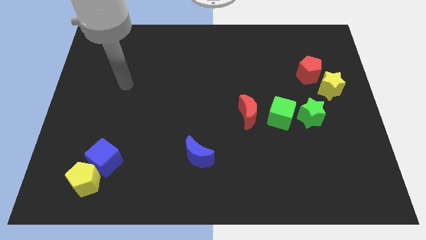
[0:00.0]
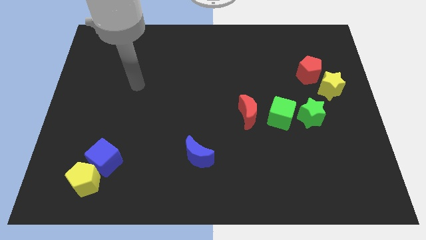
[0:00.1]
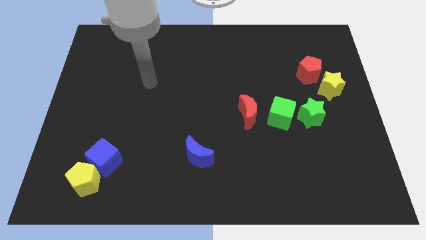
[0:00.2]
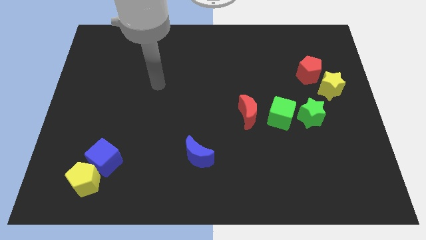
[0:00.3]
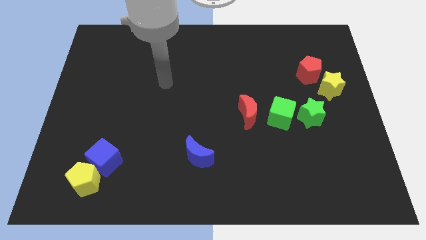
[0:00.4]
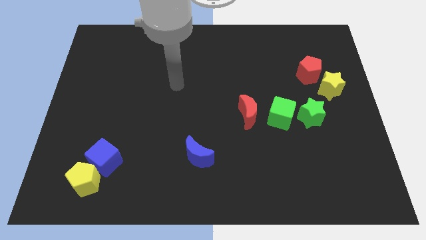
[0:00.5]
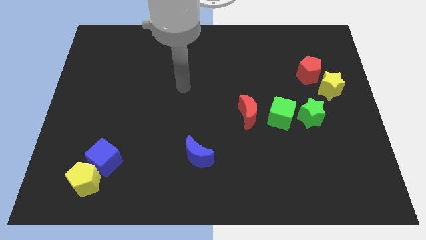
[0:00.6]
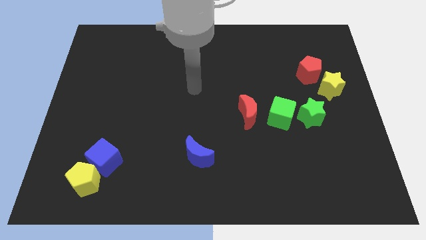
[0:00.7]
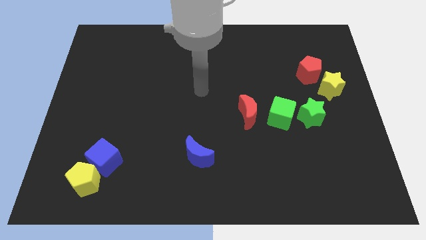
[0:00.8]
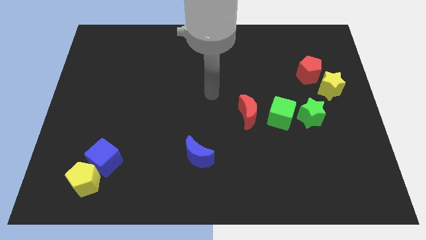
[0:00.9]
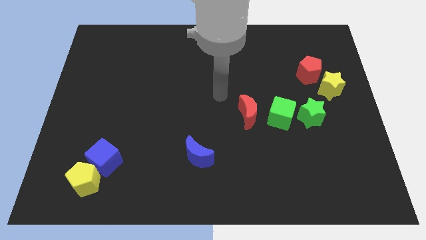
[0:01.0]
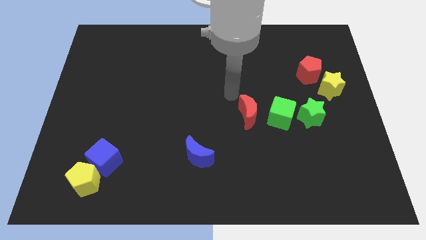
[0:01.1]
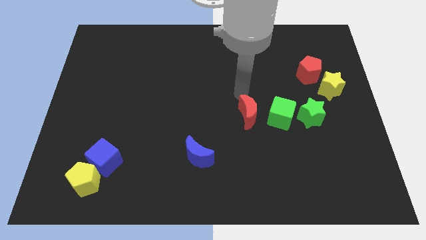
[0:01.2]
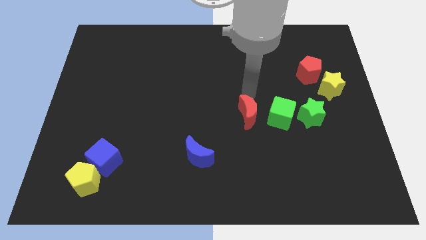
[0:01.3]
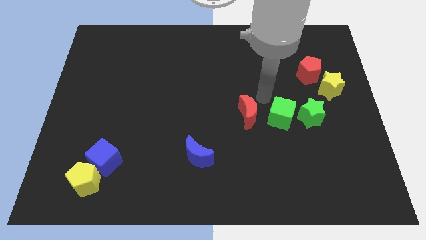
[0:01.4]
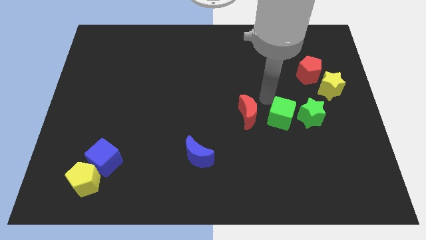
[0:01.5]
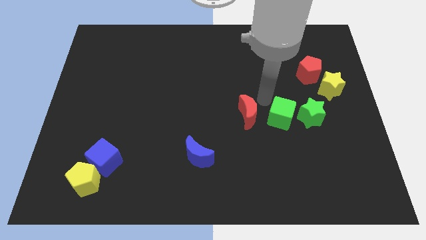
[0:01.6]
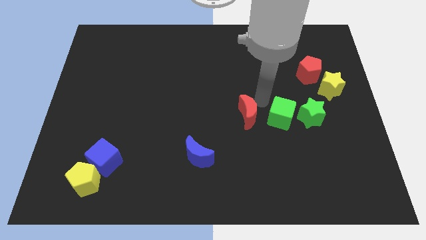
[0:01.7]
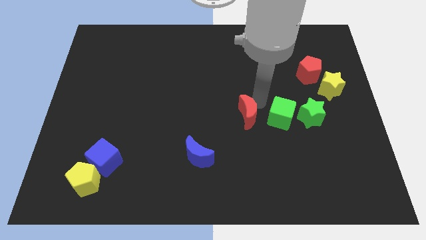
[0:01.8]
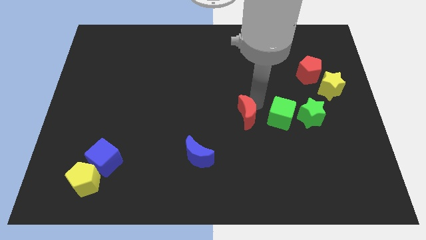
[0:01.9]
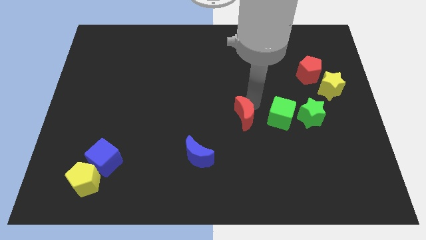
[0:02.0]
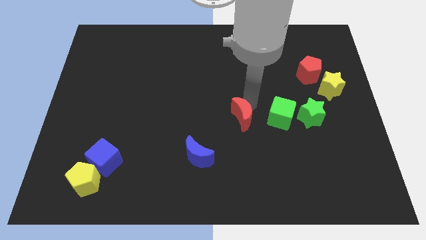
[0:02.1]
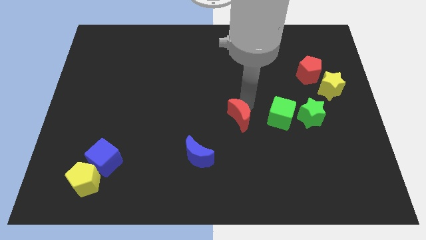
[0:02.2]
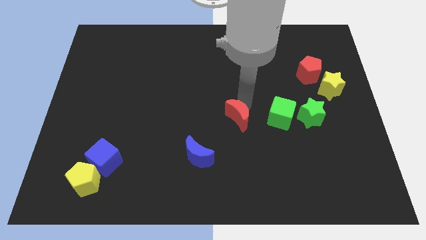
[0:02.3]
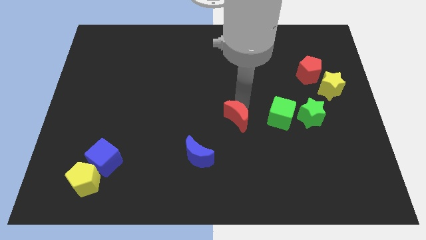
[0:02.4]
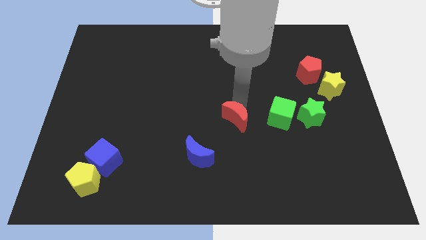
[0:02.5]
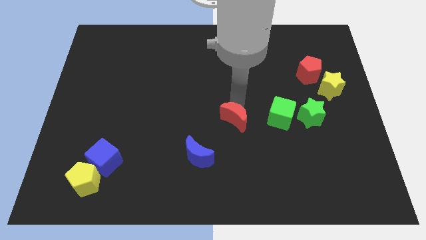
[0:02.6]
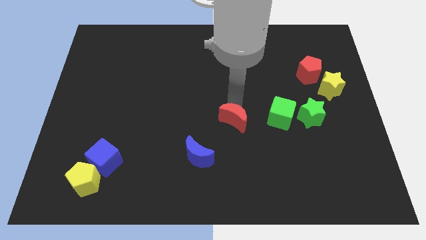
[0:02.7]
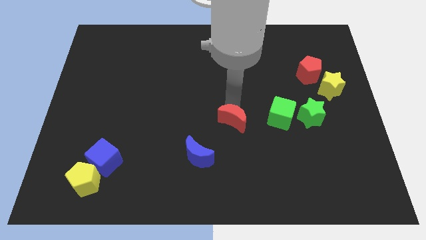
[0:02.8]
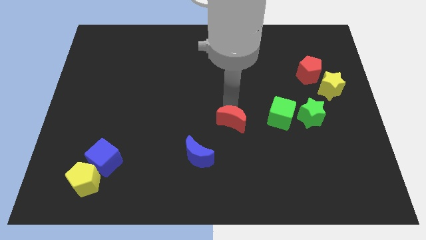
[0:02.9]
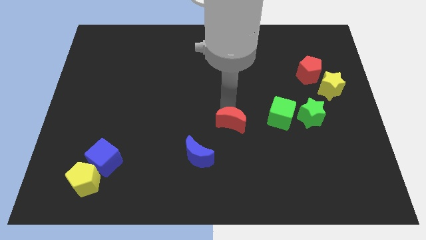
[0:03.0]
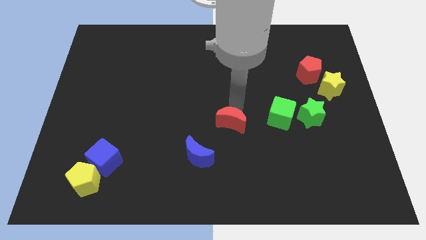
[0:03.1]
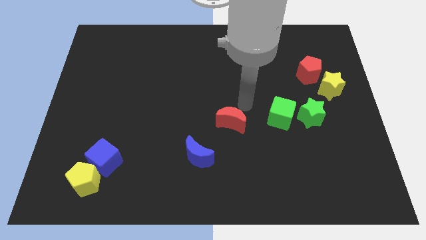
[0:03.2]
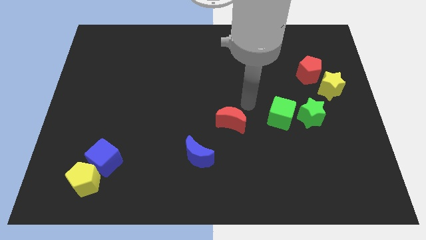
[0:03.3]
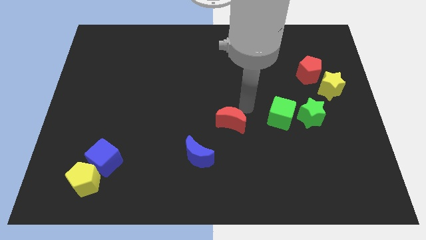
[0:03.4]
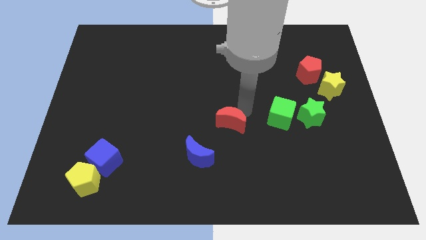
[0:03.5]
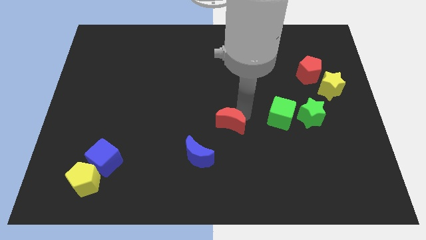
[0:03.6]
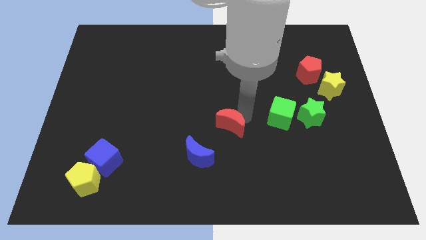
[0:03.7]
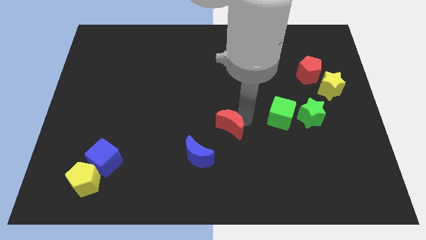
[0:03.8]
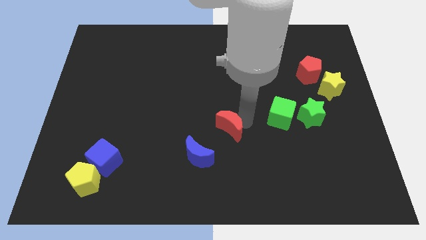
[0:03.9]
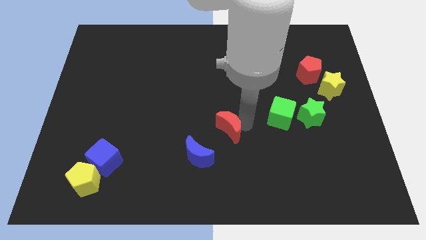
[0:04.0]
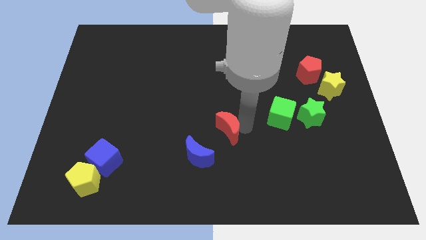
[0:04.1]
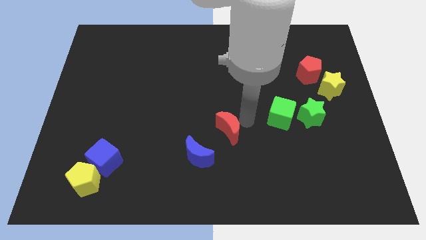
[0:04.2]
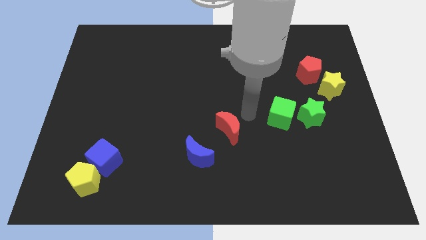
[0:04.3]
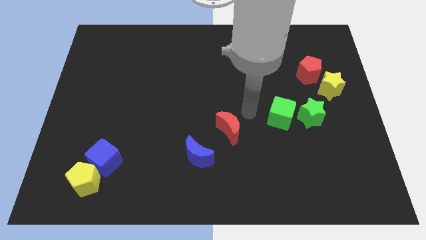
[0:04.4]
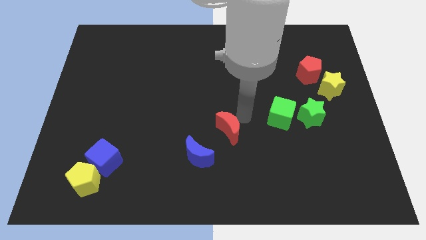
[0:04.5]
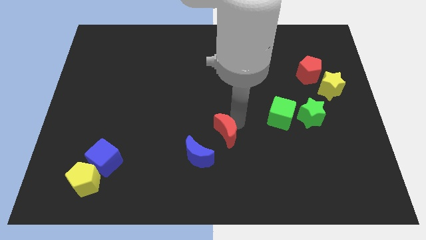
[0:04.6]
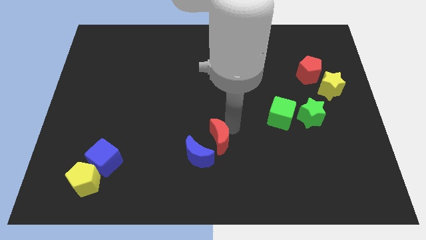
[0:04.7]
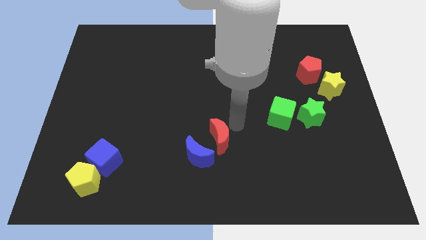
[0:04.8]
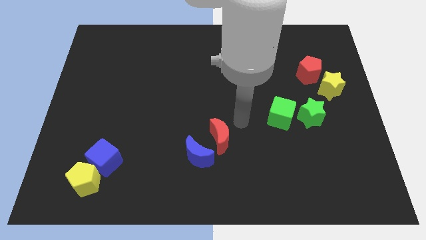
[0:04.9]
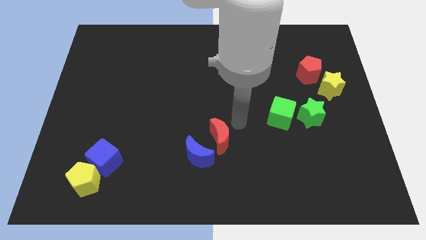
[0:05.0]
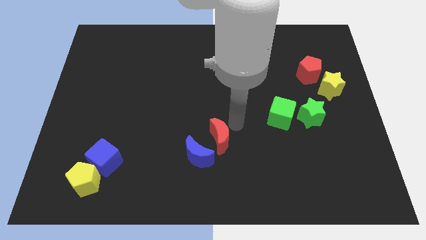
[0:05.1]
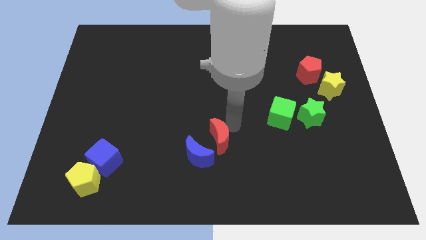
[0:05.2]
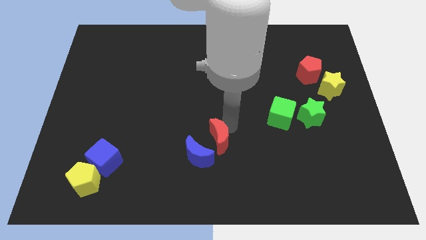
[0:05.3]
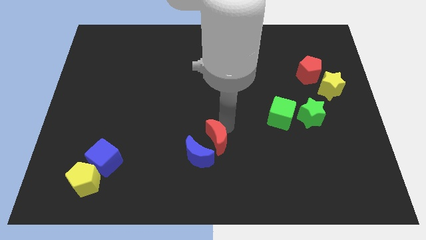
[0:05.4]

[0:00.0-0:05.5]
push the red moon next to the blue moon

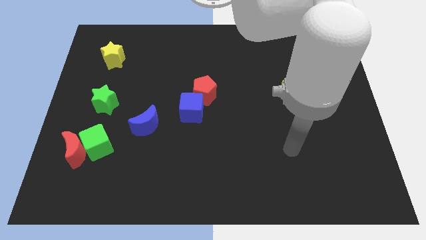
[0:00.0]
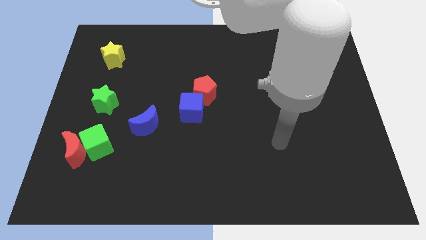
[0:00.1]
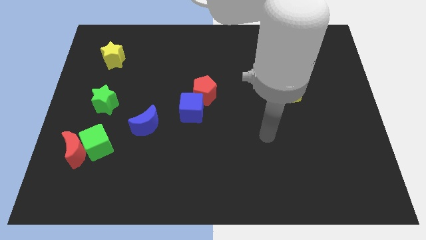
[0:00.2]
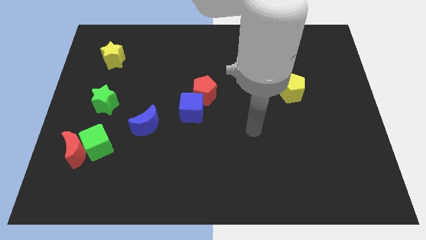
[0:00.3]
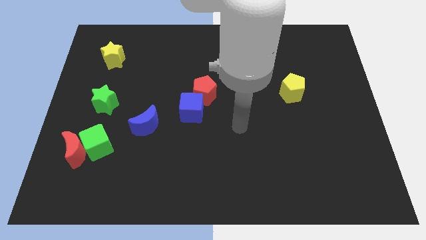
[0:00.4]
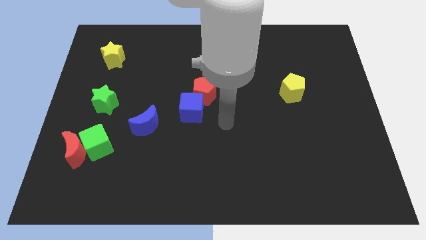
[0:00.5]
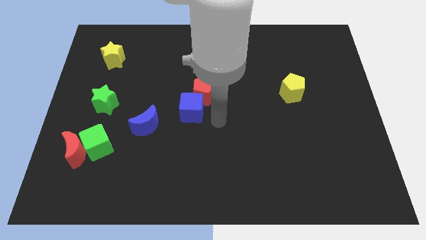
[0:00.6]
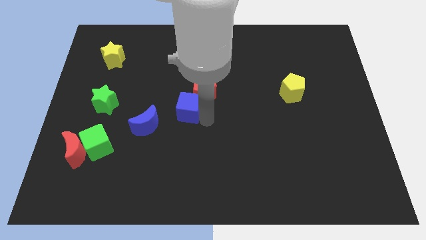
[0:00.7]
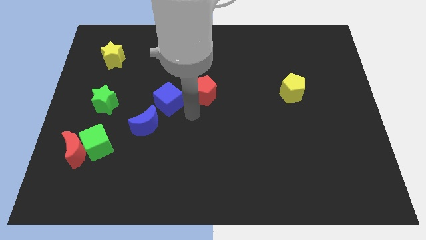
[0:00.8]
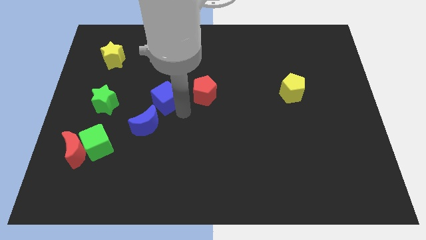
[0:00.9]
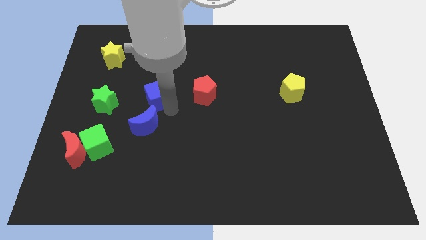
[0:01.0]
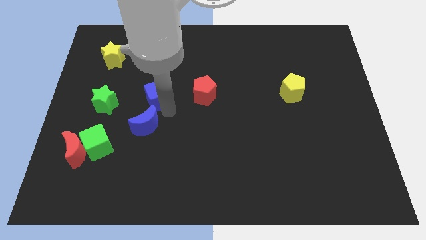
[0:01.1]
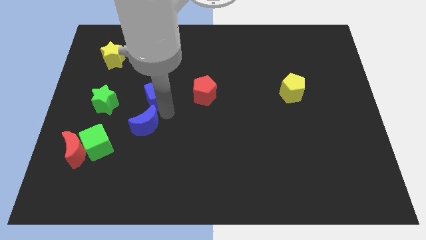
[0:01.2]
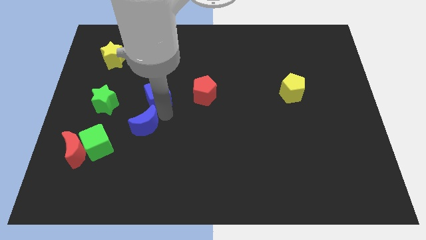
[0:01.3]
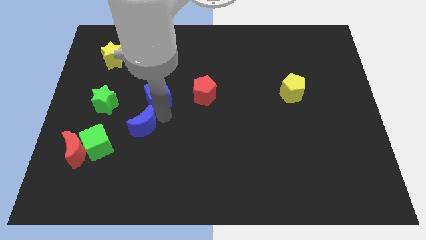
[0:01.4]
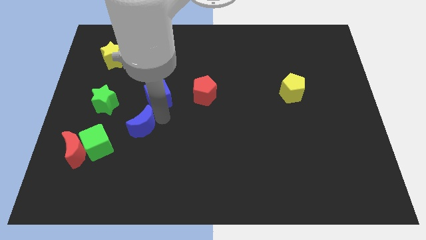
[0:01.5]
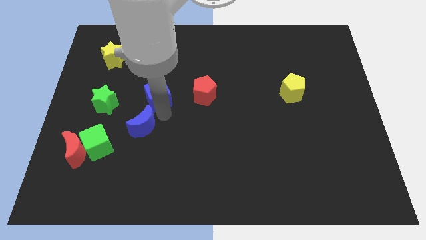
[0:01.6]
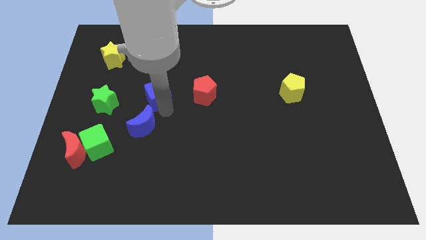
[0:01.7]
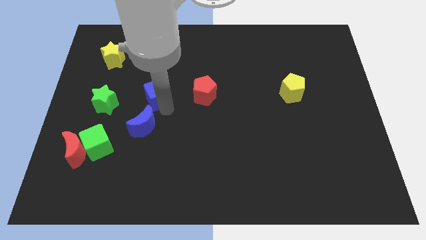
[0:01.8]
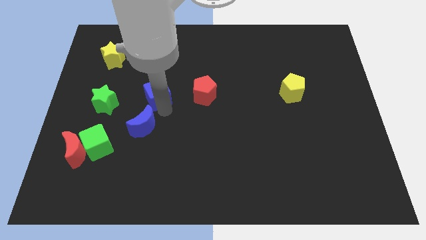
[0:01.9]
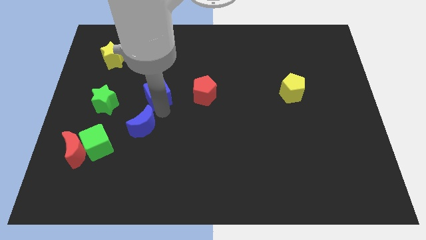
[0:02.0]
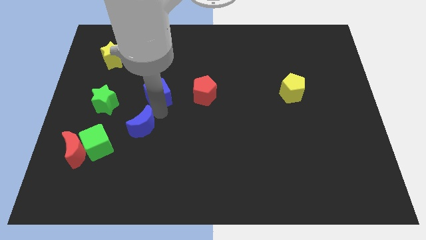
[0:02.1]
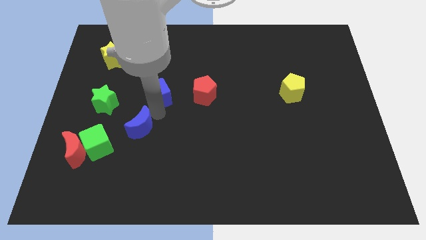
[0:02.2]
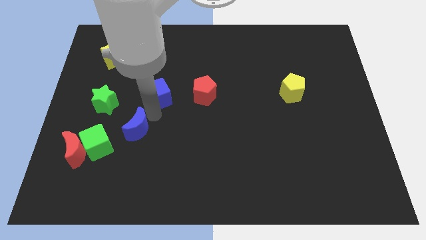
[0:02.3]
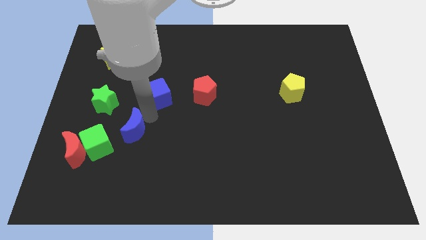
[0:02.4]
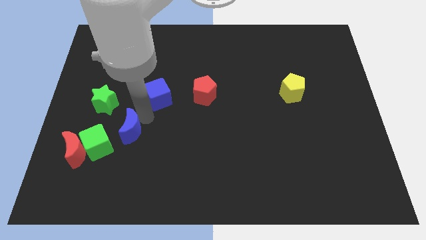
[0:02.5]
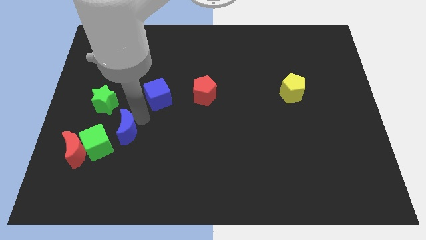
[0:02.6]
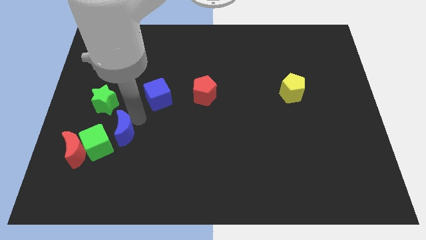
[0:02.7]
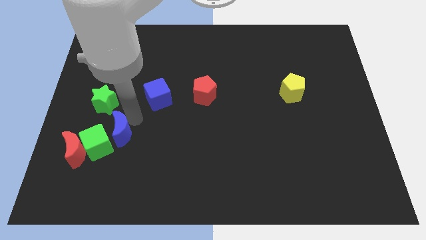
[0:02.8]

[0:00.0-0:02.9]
push the blue moon towards the green cube
